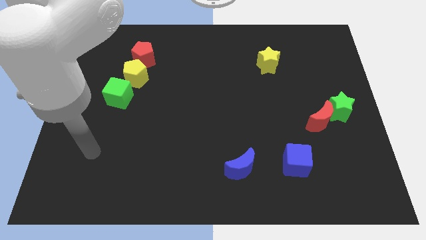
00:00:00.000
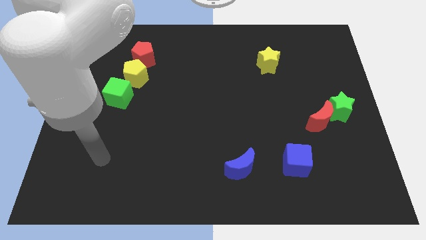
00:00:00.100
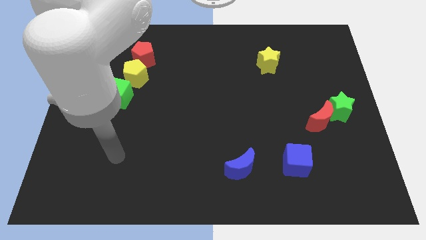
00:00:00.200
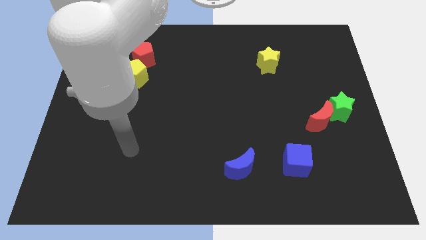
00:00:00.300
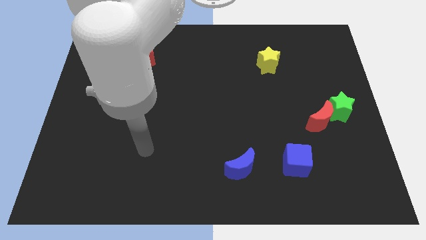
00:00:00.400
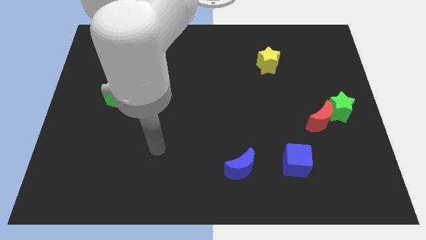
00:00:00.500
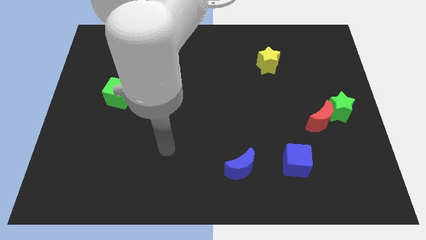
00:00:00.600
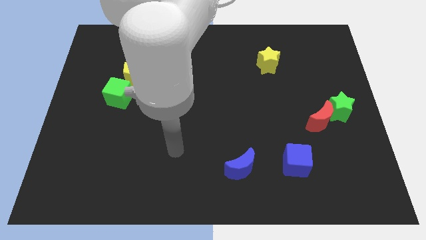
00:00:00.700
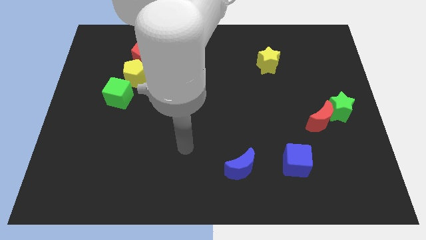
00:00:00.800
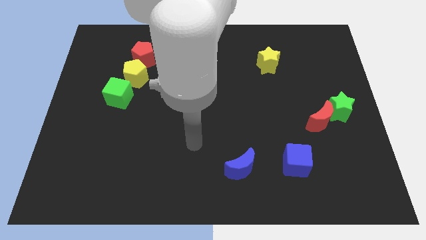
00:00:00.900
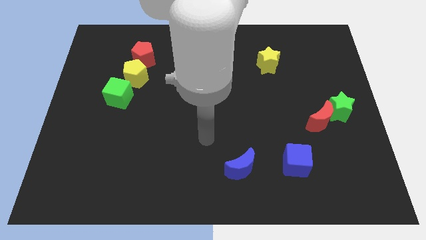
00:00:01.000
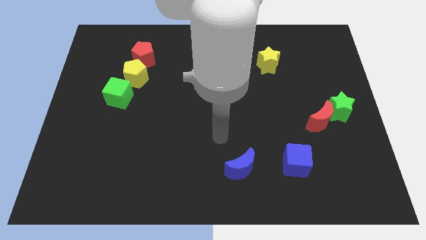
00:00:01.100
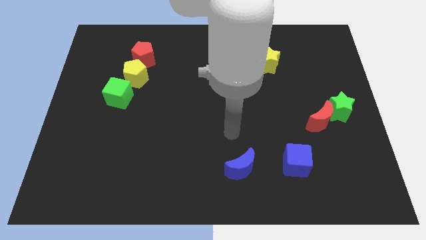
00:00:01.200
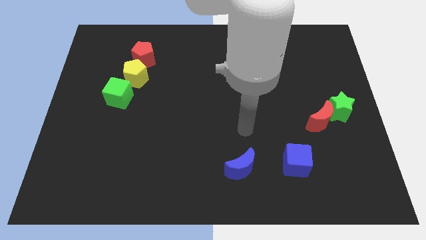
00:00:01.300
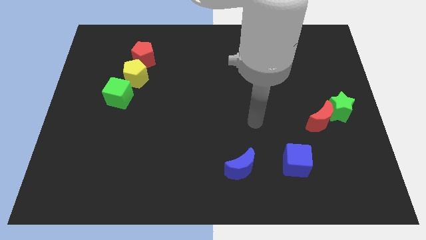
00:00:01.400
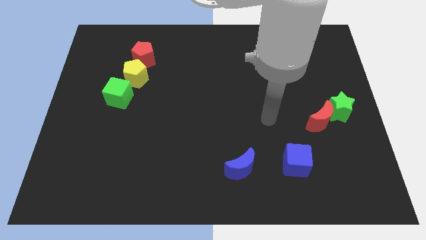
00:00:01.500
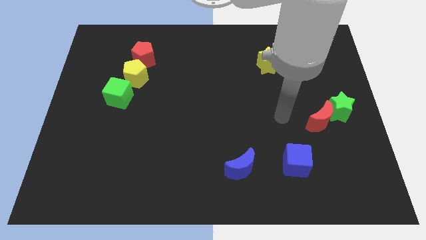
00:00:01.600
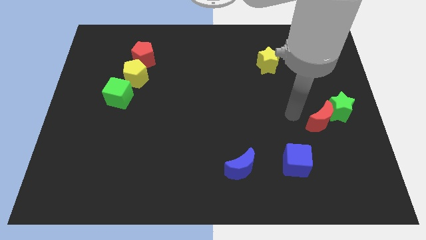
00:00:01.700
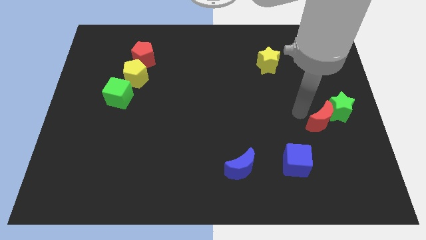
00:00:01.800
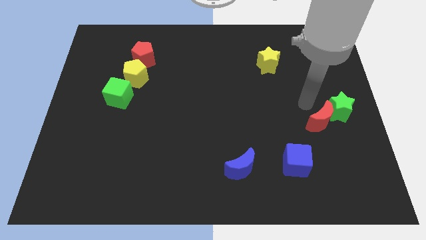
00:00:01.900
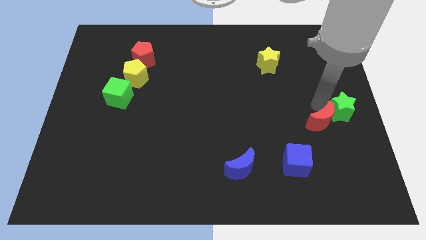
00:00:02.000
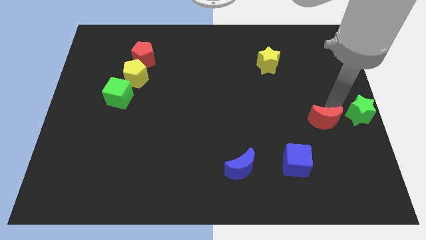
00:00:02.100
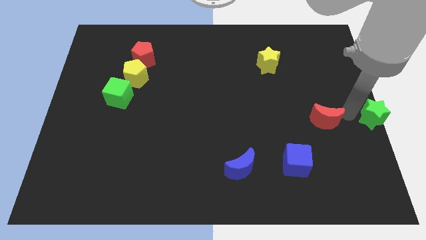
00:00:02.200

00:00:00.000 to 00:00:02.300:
pull the red moon apart from the green star

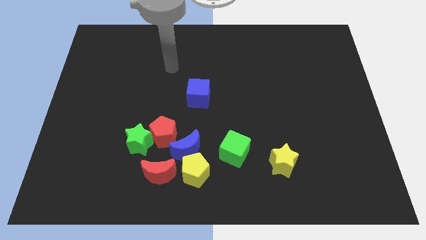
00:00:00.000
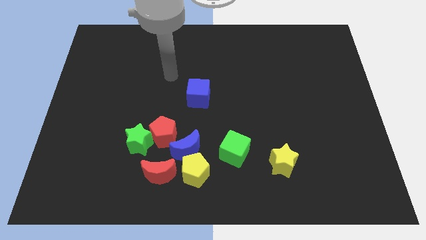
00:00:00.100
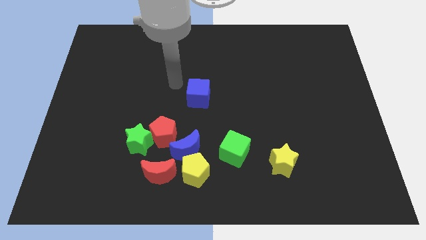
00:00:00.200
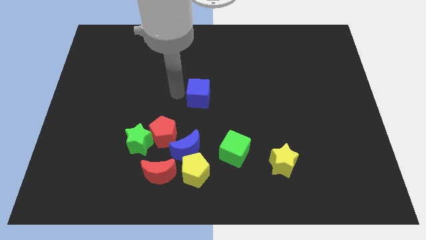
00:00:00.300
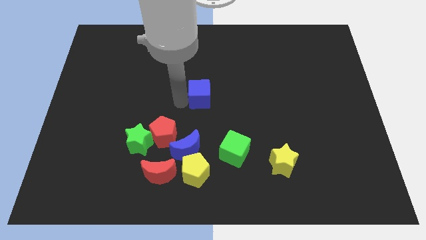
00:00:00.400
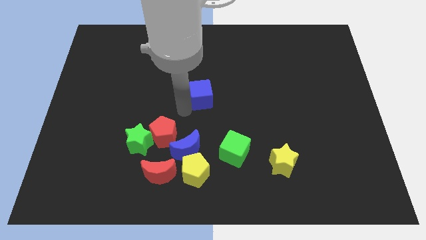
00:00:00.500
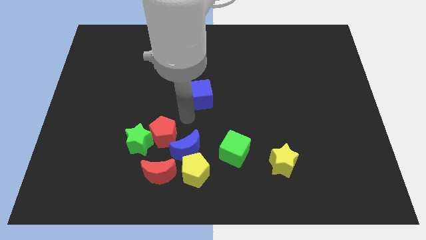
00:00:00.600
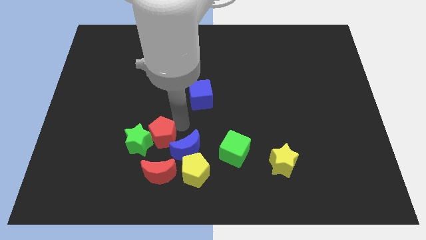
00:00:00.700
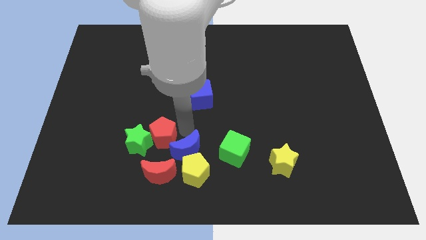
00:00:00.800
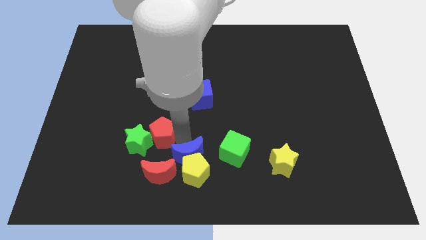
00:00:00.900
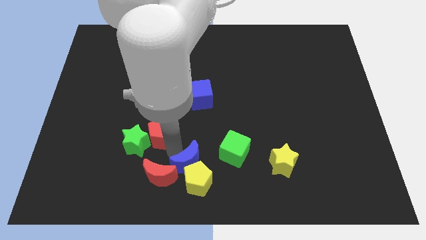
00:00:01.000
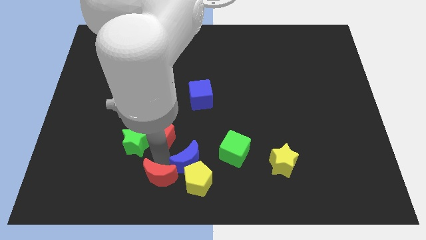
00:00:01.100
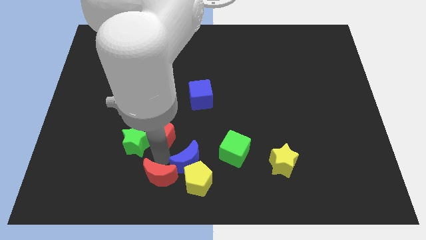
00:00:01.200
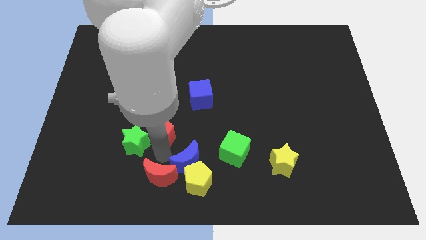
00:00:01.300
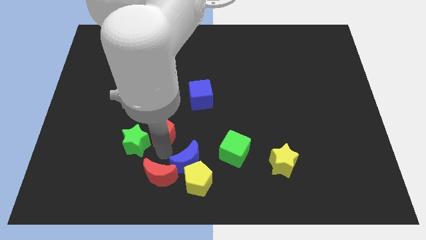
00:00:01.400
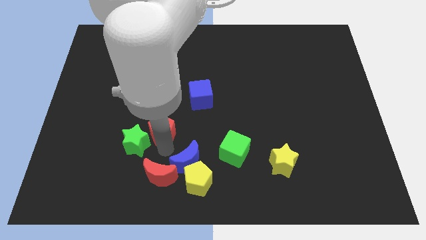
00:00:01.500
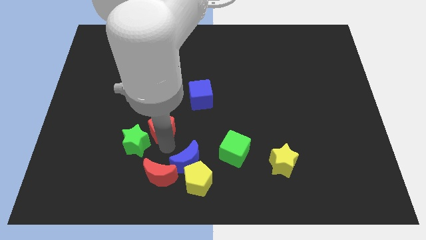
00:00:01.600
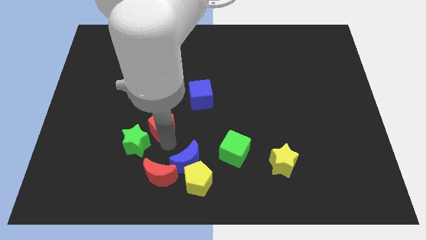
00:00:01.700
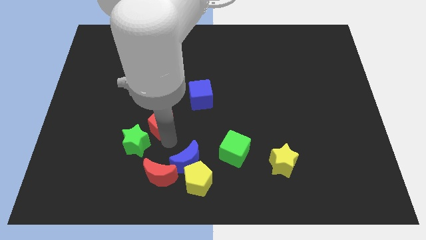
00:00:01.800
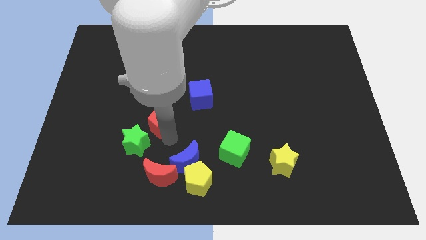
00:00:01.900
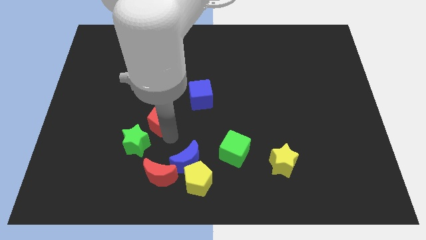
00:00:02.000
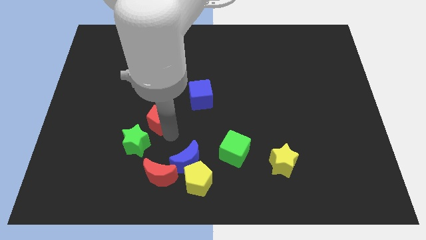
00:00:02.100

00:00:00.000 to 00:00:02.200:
move the red pentagon away from the green star, blue moon, and red moon

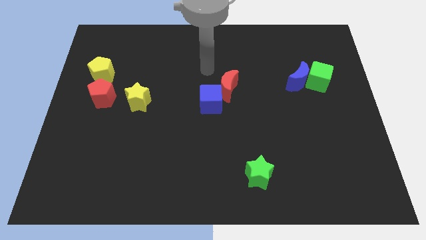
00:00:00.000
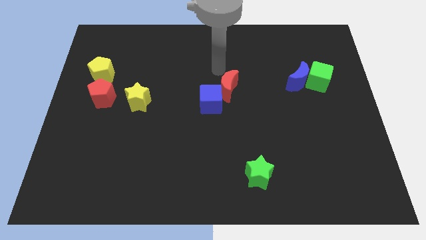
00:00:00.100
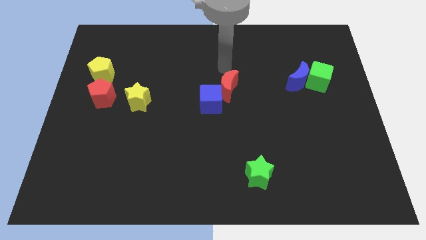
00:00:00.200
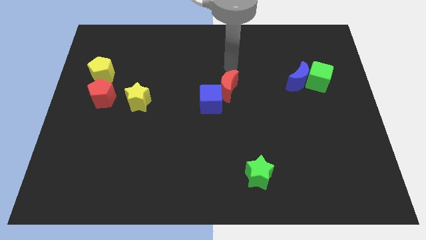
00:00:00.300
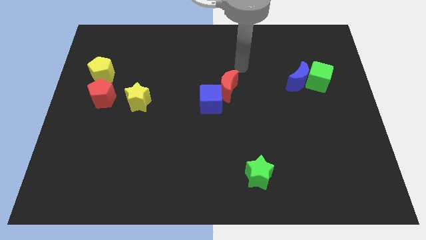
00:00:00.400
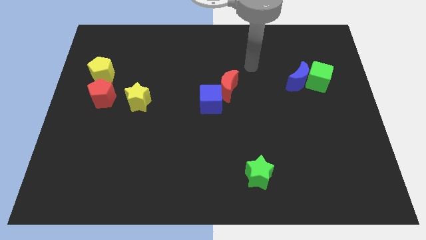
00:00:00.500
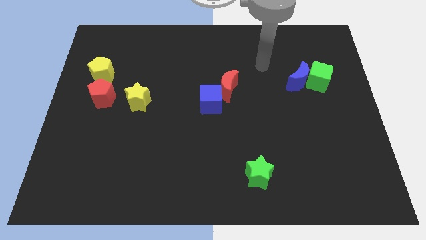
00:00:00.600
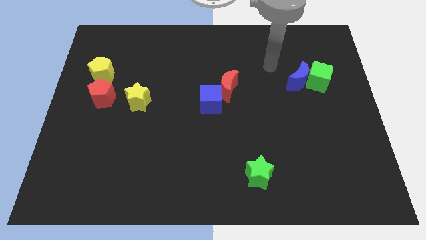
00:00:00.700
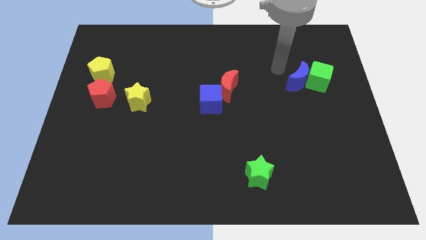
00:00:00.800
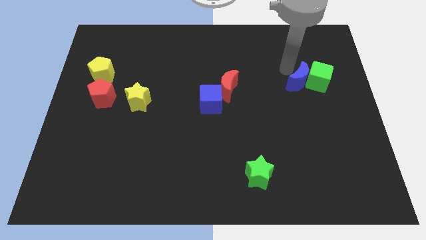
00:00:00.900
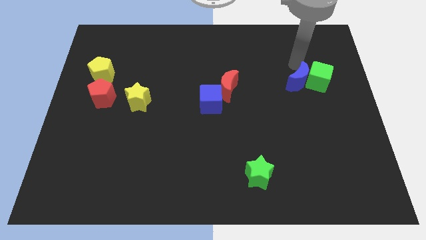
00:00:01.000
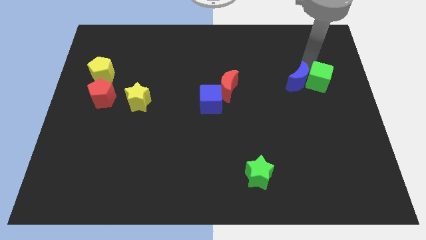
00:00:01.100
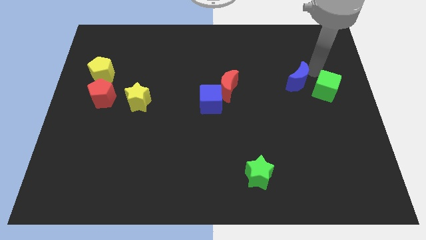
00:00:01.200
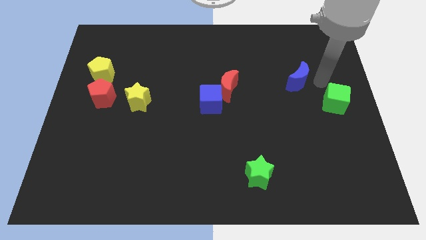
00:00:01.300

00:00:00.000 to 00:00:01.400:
separate the blue moon from the green cube

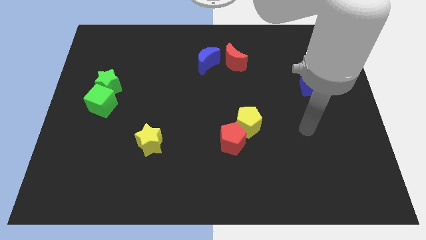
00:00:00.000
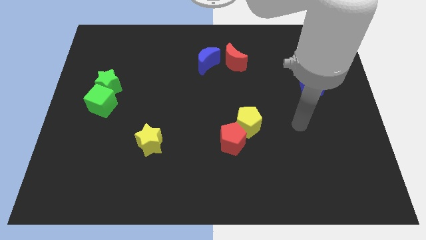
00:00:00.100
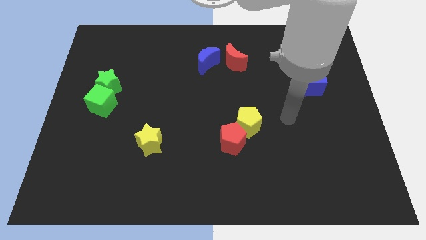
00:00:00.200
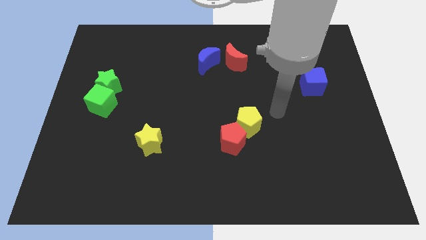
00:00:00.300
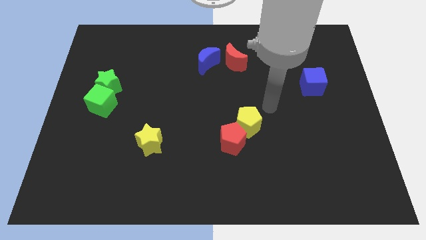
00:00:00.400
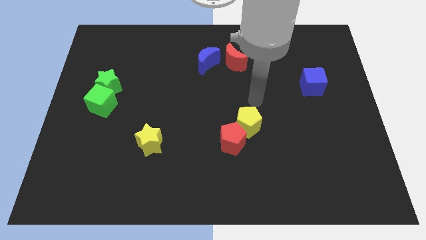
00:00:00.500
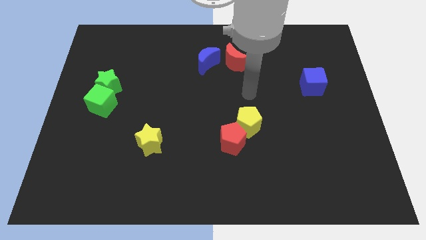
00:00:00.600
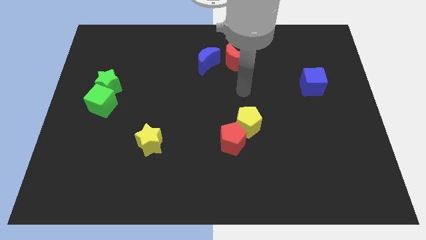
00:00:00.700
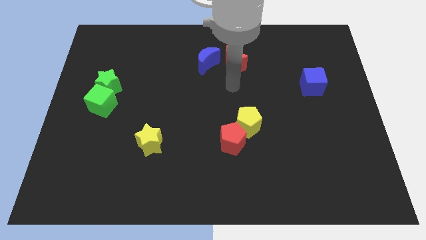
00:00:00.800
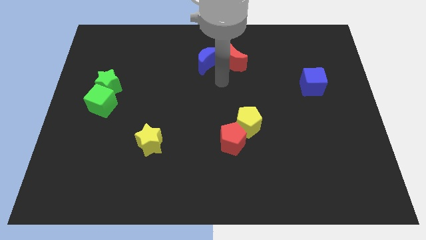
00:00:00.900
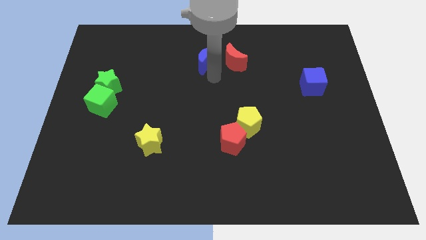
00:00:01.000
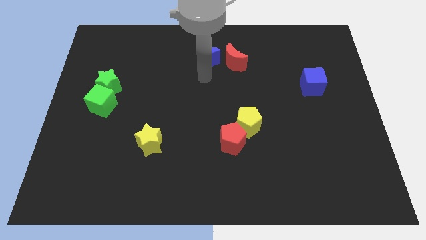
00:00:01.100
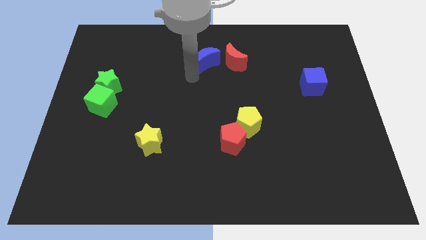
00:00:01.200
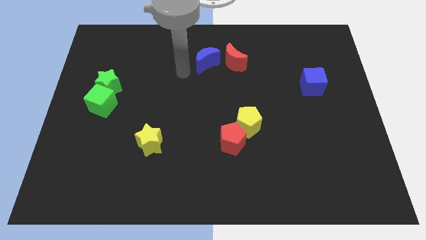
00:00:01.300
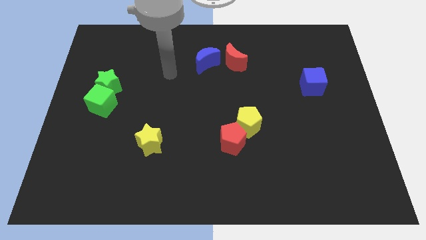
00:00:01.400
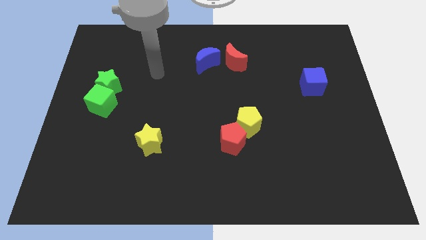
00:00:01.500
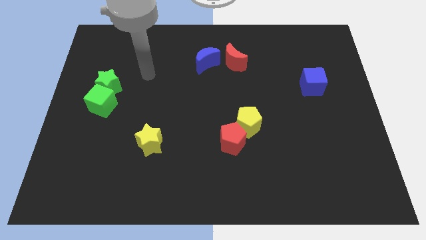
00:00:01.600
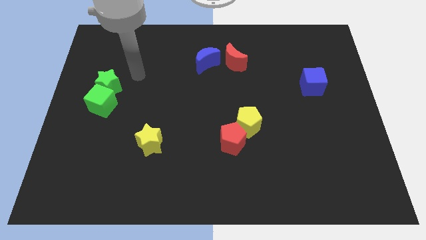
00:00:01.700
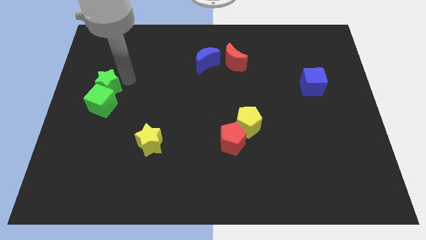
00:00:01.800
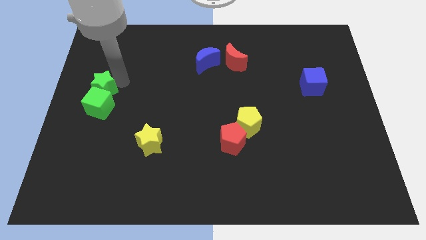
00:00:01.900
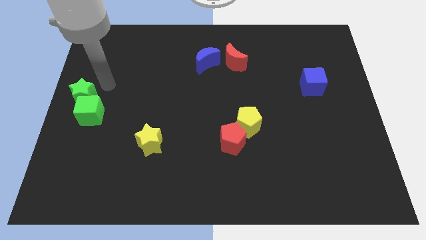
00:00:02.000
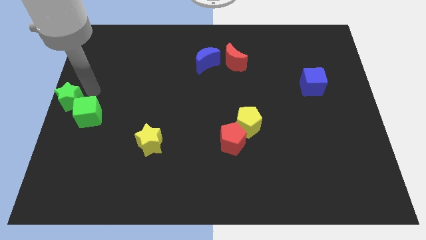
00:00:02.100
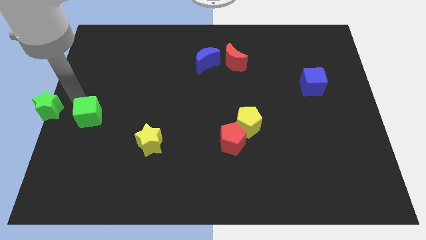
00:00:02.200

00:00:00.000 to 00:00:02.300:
move the green cube away from the green star

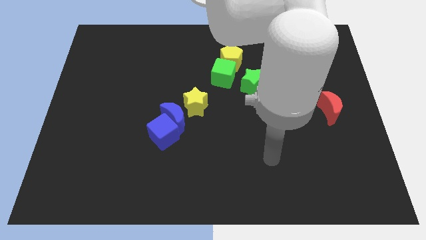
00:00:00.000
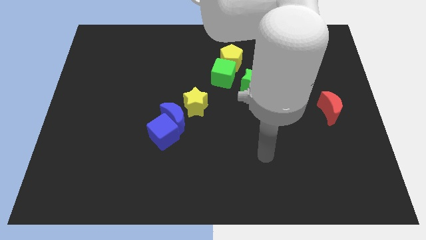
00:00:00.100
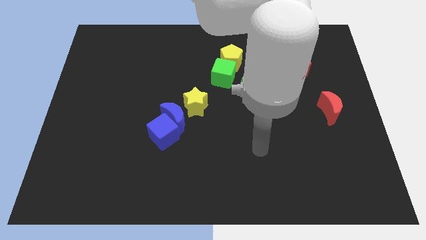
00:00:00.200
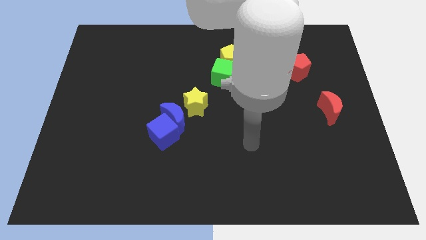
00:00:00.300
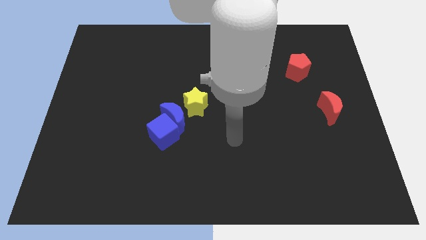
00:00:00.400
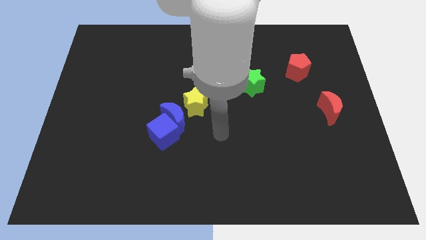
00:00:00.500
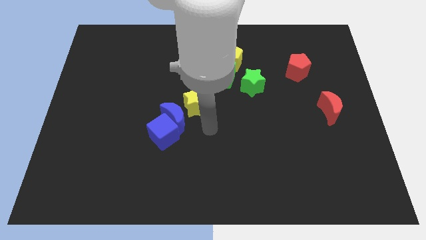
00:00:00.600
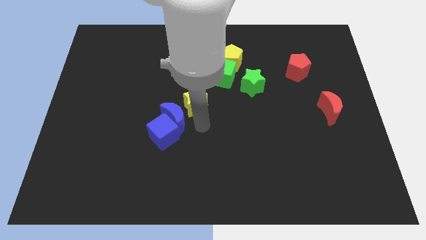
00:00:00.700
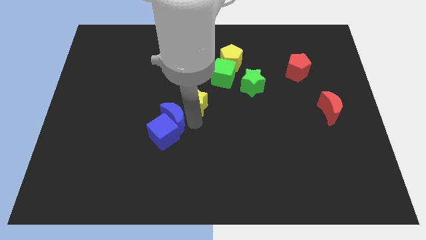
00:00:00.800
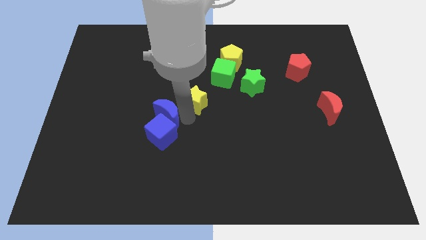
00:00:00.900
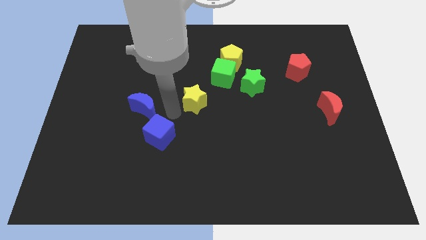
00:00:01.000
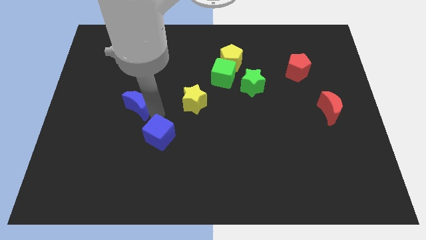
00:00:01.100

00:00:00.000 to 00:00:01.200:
move the blue cube away from the blue moon
